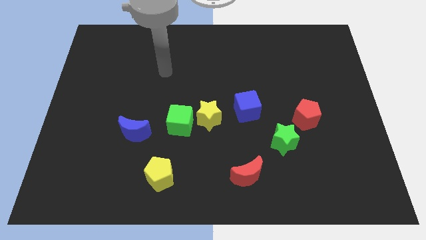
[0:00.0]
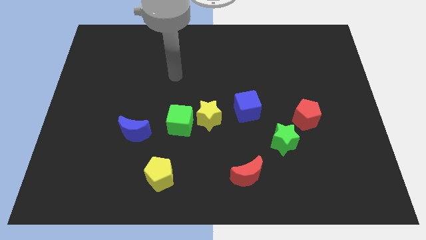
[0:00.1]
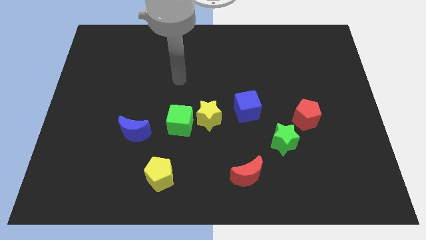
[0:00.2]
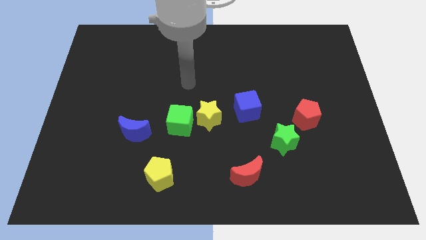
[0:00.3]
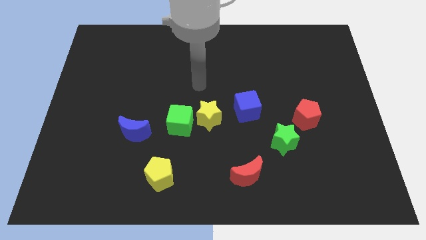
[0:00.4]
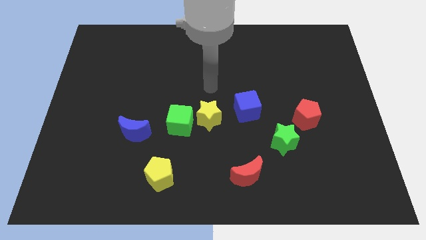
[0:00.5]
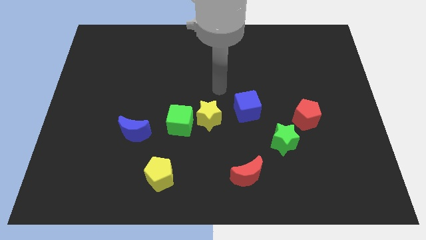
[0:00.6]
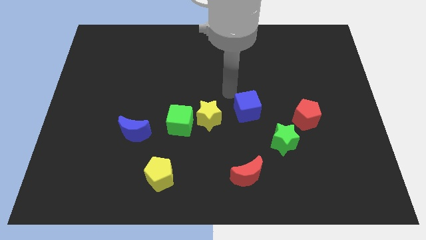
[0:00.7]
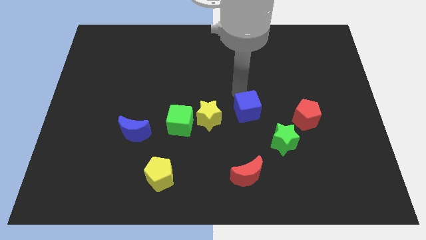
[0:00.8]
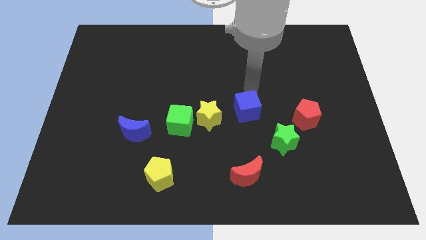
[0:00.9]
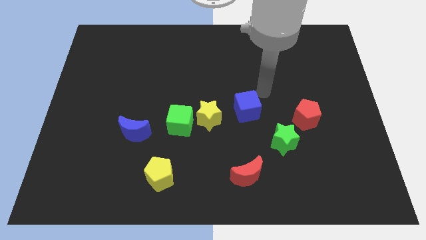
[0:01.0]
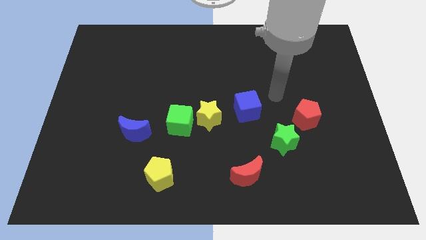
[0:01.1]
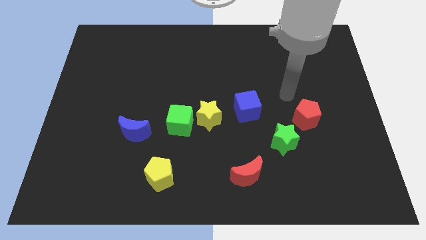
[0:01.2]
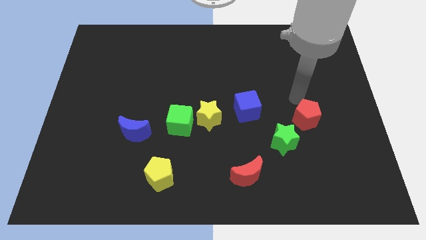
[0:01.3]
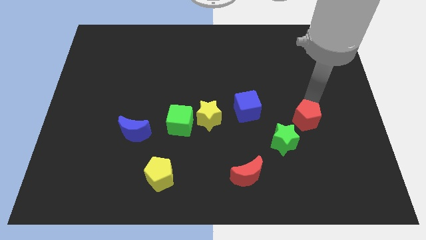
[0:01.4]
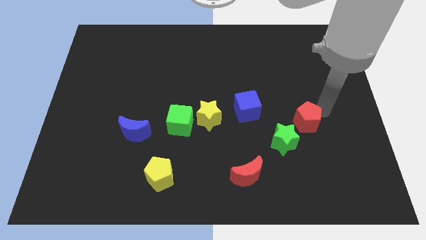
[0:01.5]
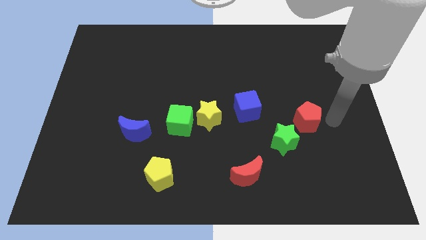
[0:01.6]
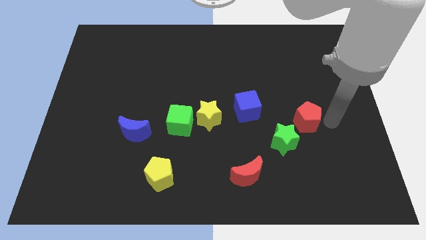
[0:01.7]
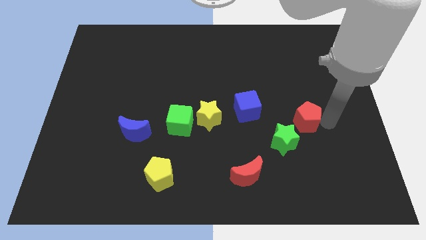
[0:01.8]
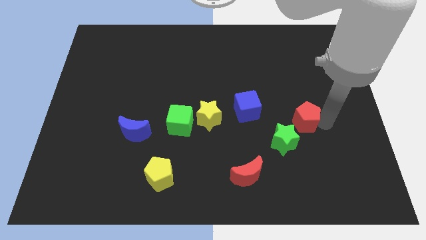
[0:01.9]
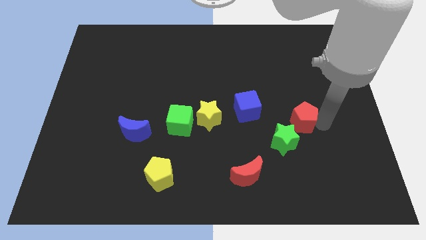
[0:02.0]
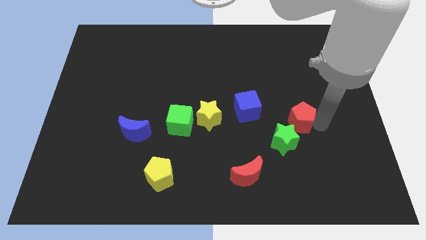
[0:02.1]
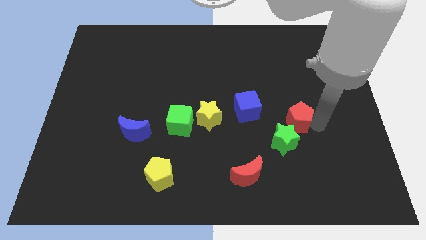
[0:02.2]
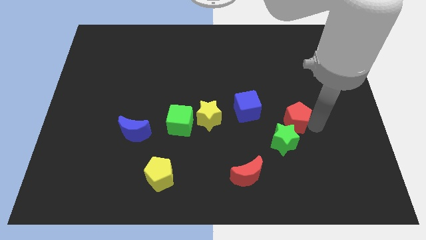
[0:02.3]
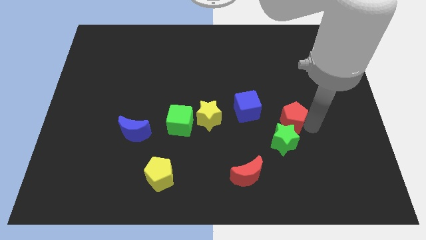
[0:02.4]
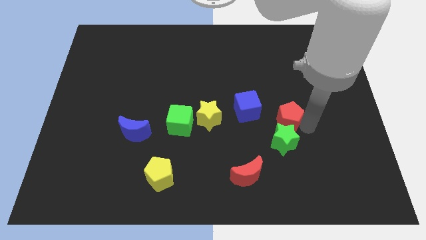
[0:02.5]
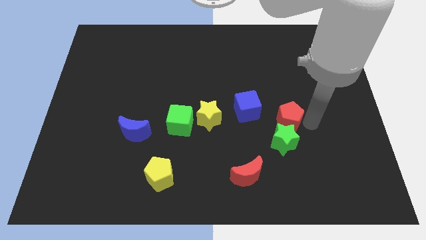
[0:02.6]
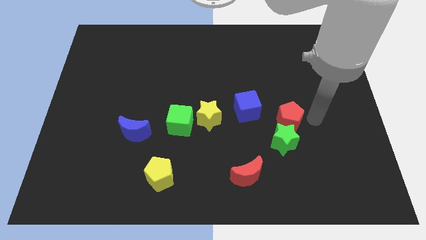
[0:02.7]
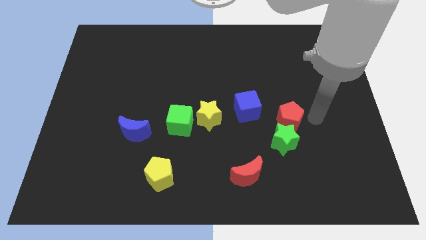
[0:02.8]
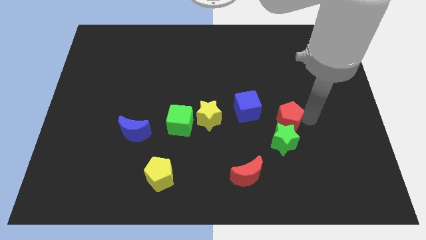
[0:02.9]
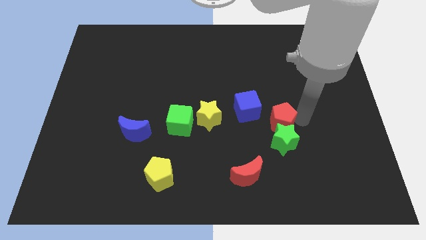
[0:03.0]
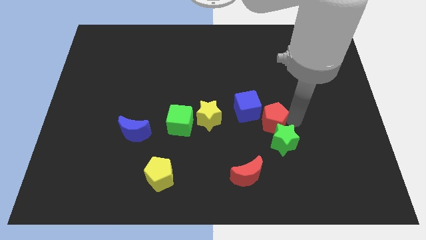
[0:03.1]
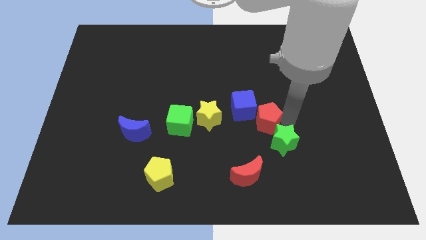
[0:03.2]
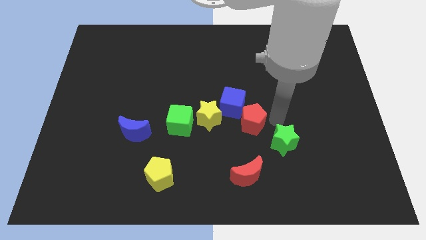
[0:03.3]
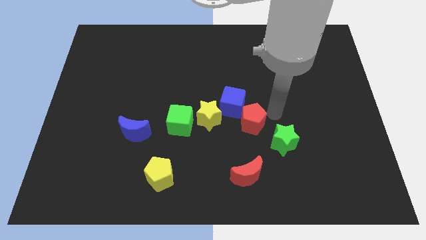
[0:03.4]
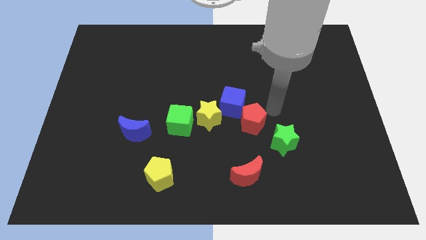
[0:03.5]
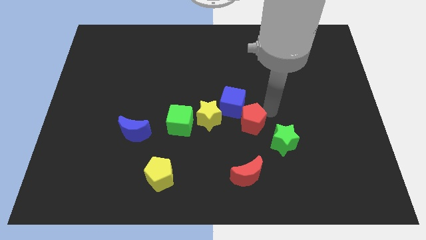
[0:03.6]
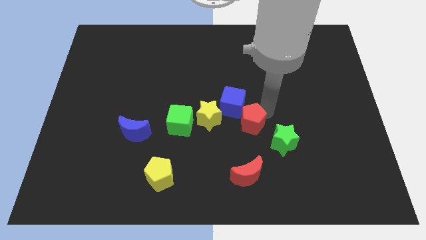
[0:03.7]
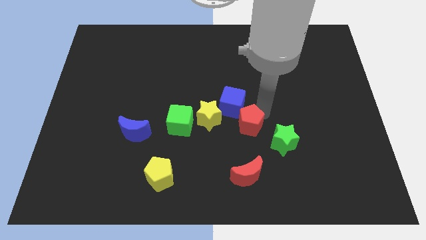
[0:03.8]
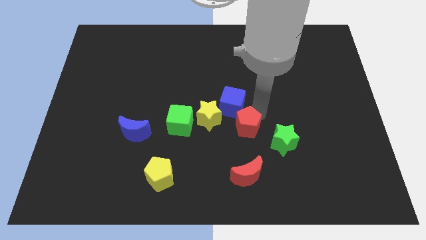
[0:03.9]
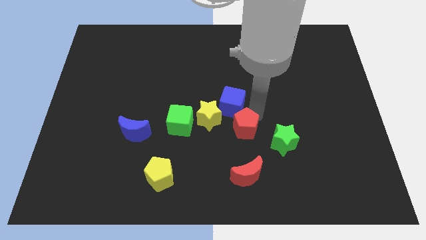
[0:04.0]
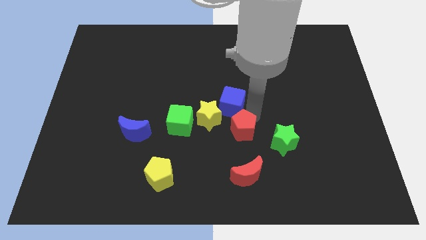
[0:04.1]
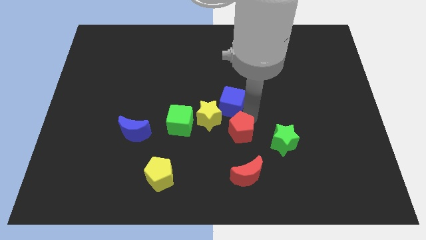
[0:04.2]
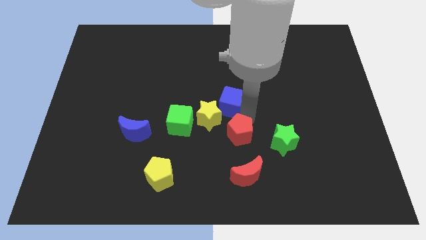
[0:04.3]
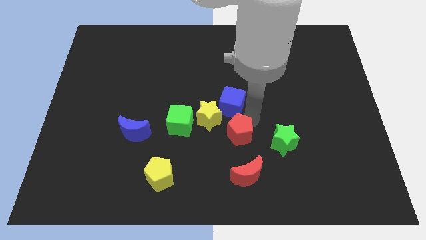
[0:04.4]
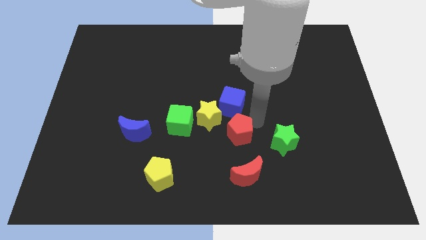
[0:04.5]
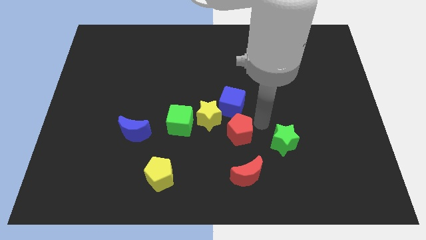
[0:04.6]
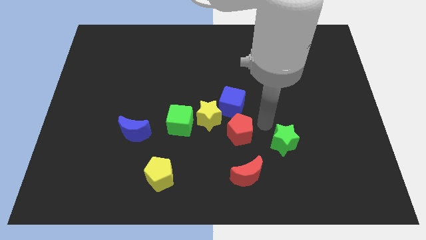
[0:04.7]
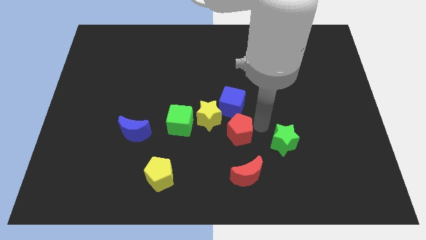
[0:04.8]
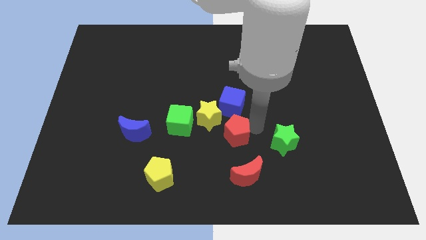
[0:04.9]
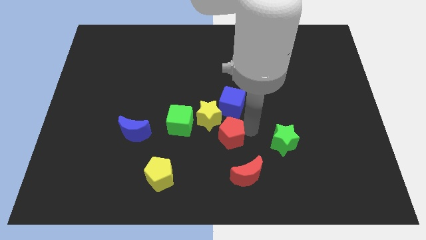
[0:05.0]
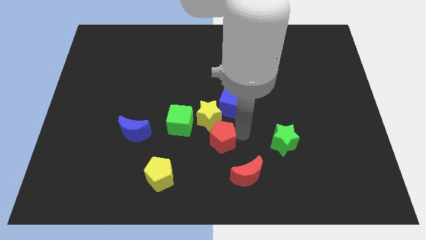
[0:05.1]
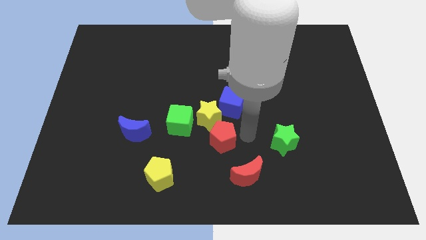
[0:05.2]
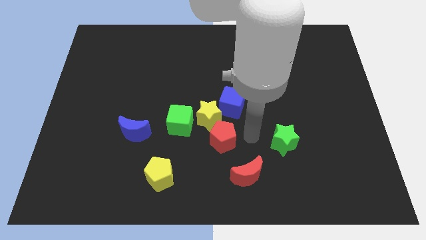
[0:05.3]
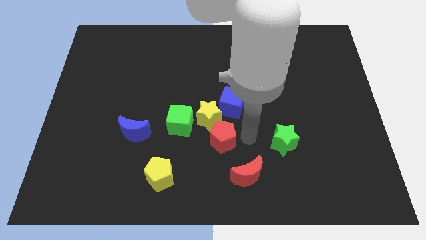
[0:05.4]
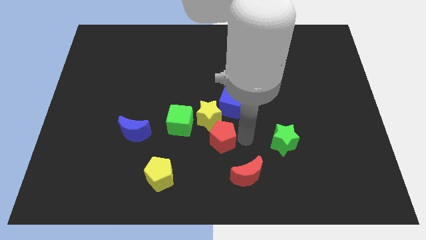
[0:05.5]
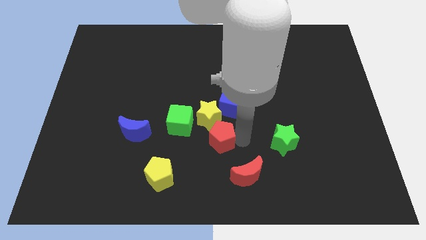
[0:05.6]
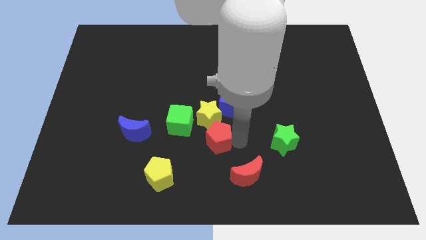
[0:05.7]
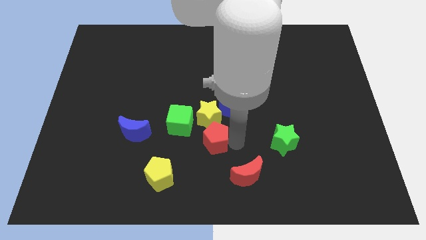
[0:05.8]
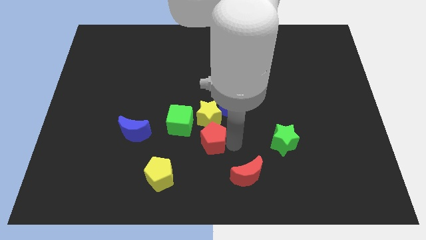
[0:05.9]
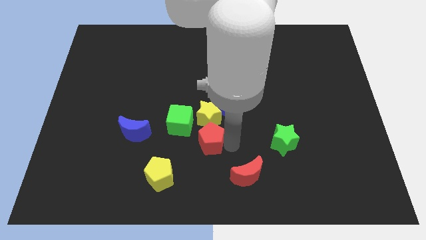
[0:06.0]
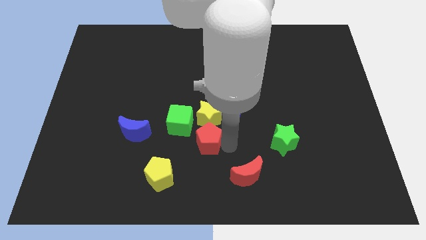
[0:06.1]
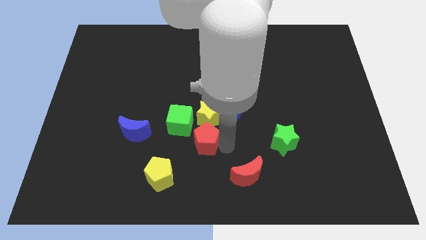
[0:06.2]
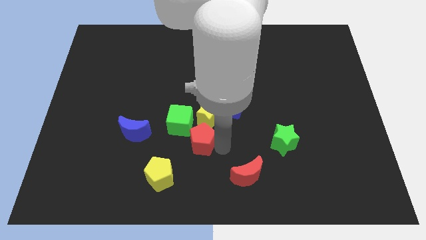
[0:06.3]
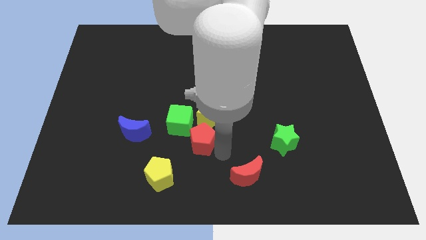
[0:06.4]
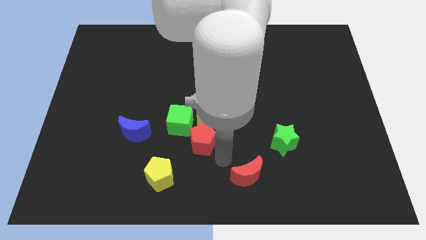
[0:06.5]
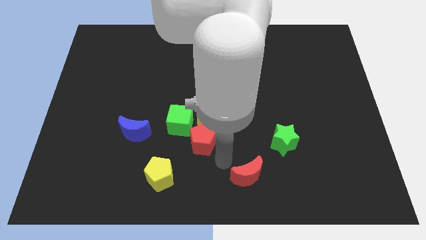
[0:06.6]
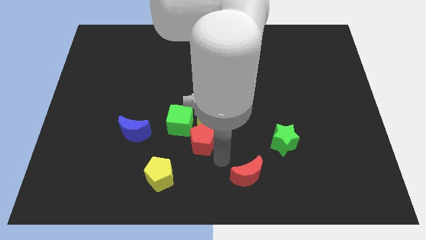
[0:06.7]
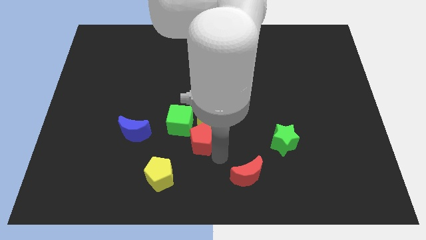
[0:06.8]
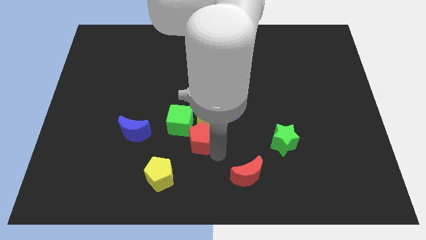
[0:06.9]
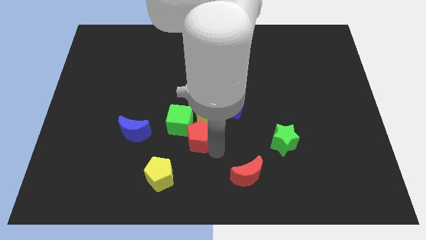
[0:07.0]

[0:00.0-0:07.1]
put the red pentagon towards the green cube

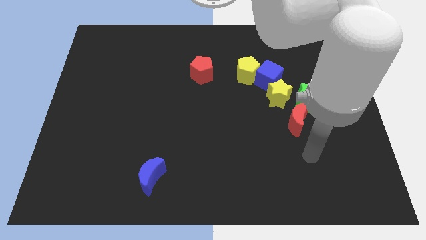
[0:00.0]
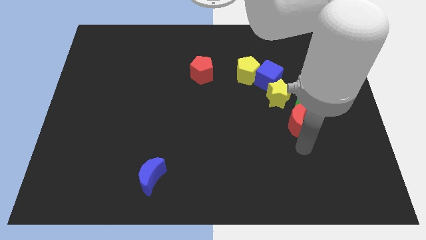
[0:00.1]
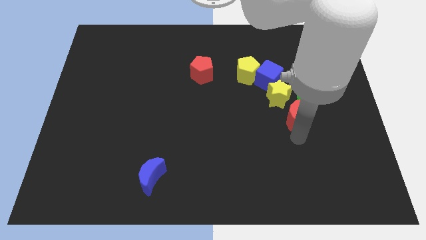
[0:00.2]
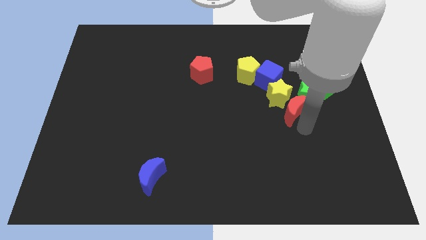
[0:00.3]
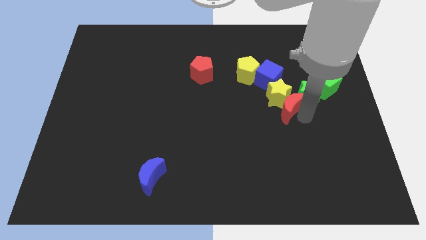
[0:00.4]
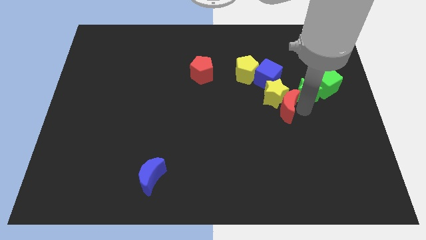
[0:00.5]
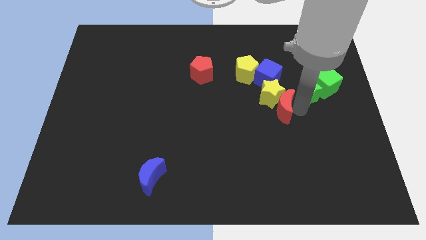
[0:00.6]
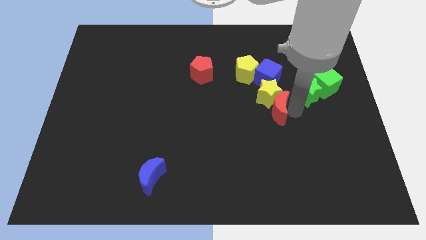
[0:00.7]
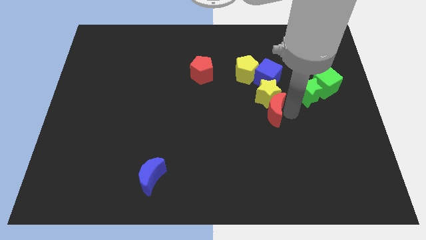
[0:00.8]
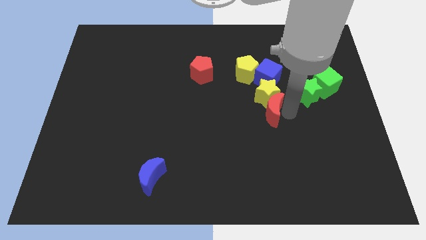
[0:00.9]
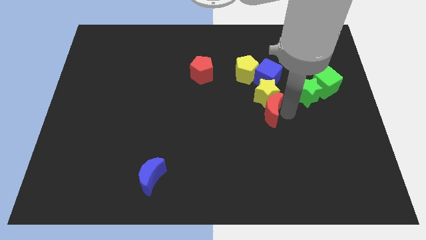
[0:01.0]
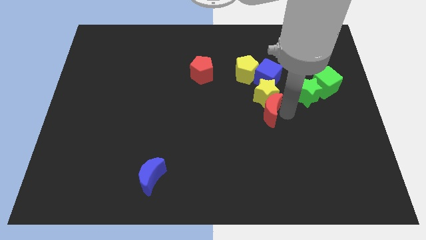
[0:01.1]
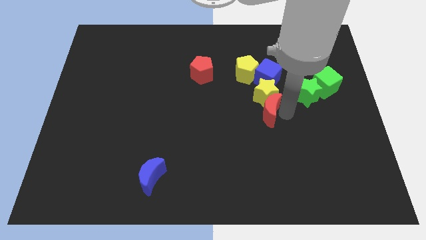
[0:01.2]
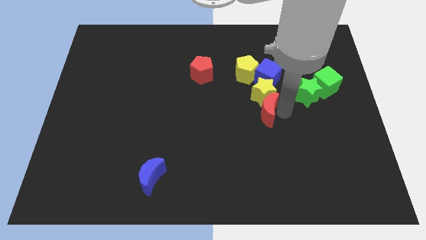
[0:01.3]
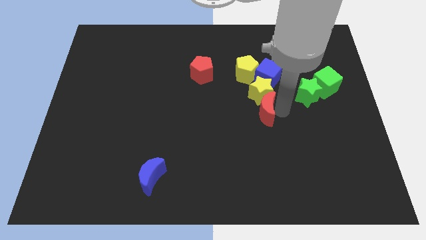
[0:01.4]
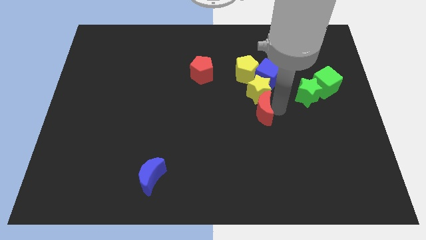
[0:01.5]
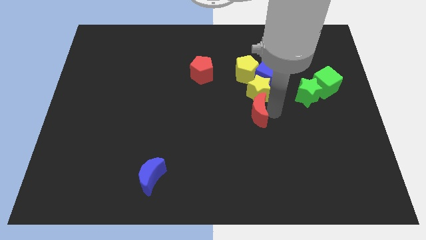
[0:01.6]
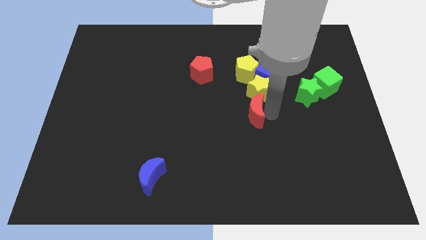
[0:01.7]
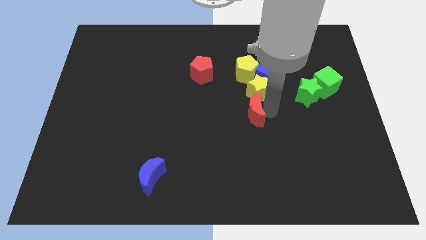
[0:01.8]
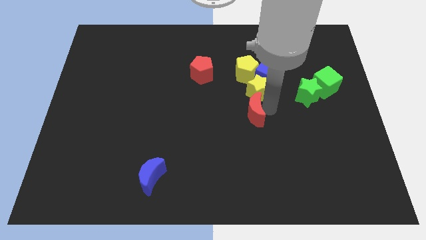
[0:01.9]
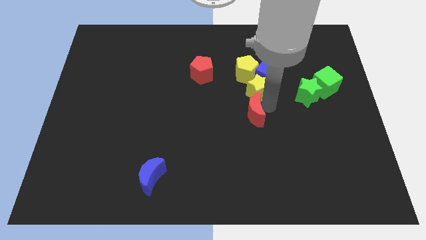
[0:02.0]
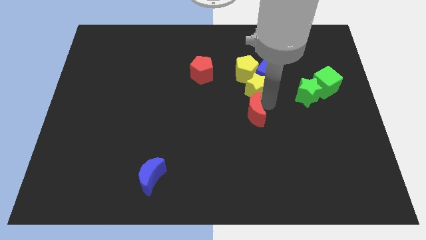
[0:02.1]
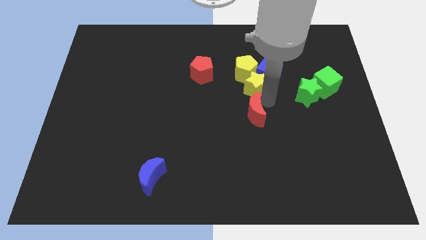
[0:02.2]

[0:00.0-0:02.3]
push the yellow star towards the yellow pentagon
